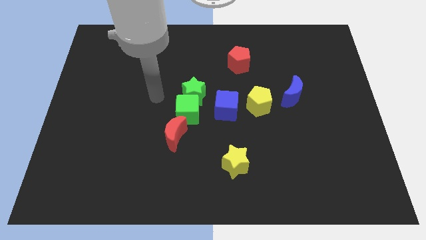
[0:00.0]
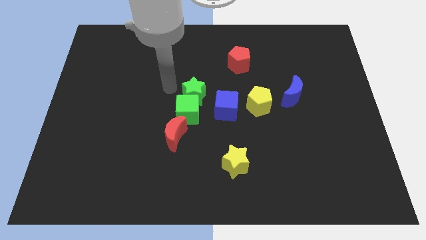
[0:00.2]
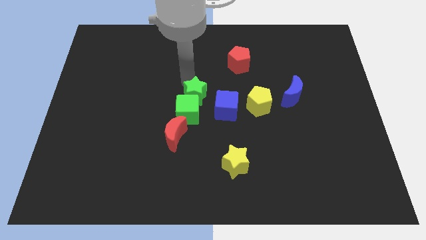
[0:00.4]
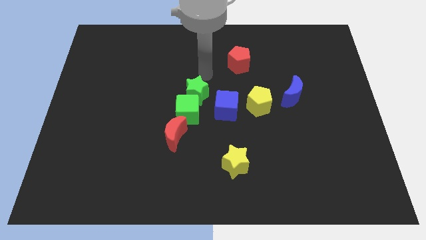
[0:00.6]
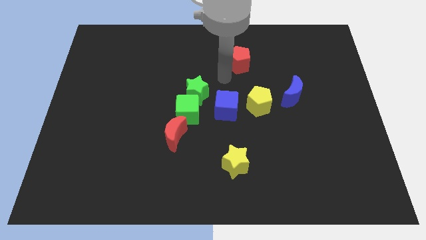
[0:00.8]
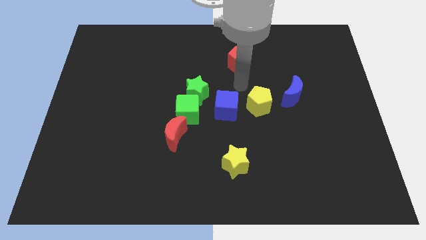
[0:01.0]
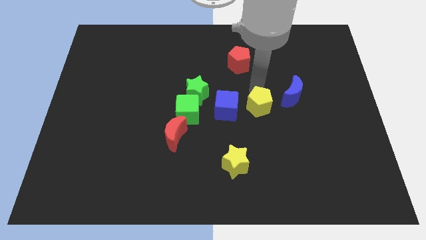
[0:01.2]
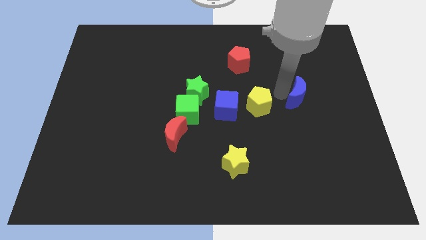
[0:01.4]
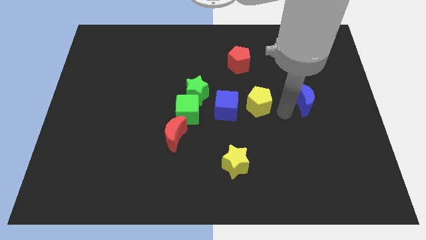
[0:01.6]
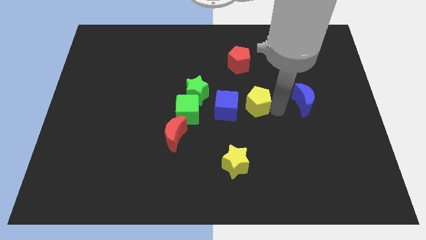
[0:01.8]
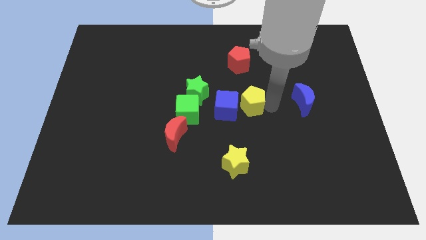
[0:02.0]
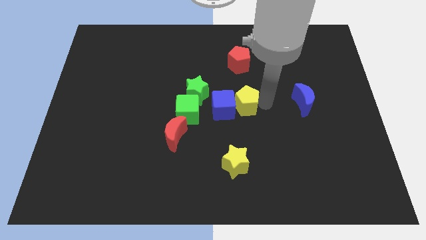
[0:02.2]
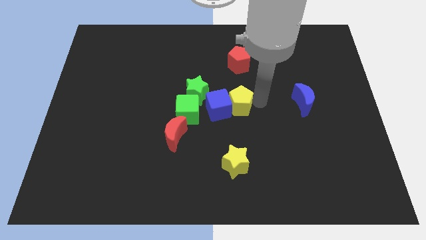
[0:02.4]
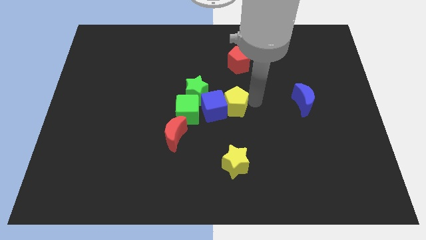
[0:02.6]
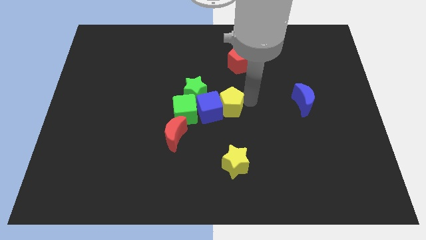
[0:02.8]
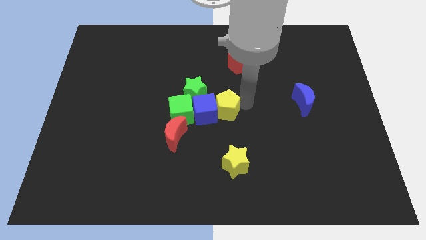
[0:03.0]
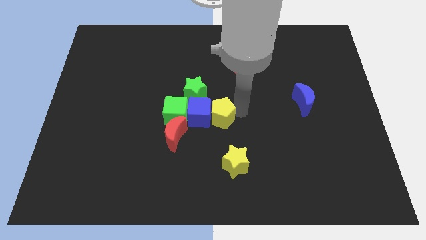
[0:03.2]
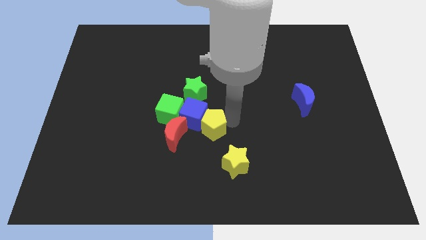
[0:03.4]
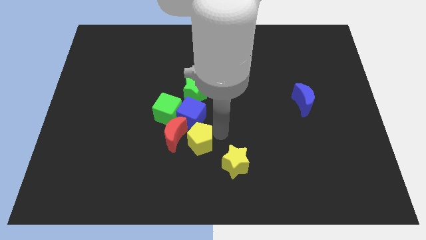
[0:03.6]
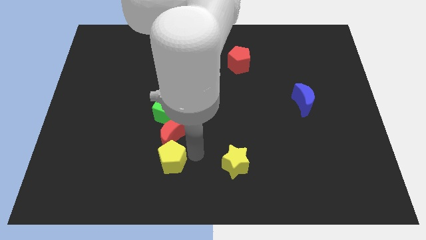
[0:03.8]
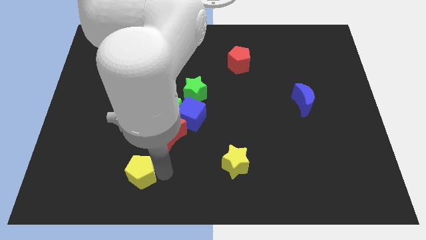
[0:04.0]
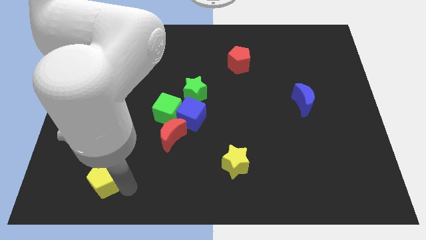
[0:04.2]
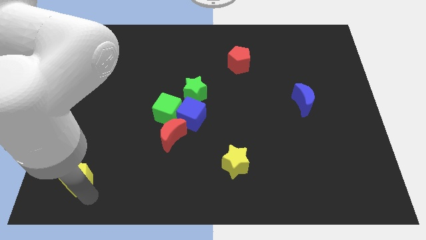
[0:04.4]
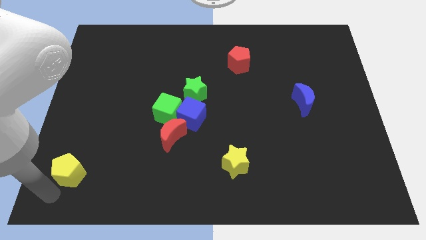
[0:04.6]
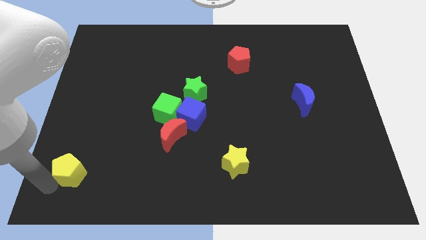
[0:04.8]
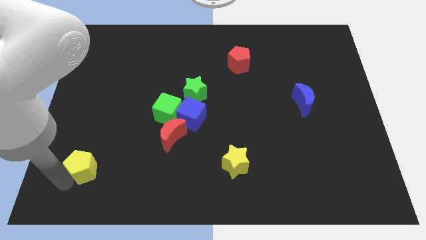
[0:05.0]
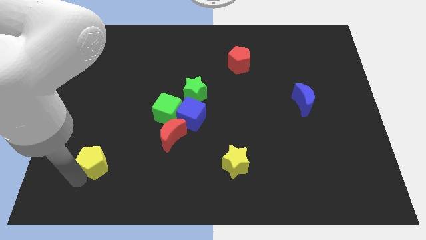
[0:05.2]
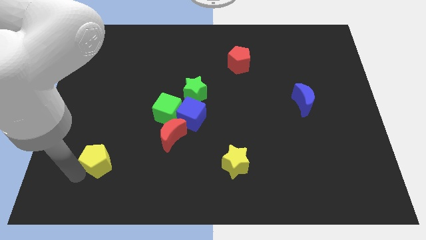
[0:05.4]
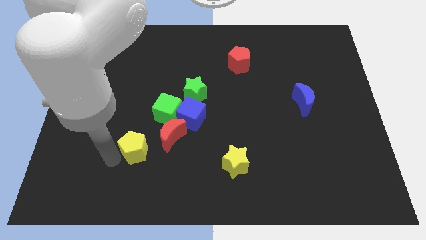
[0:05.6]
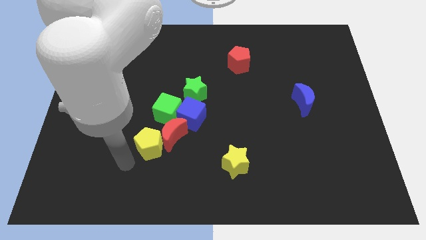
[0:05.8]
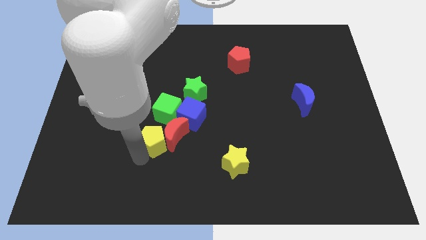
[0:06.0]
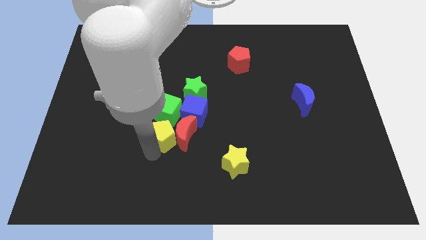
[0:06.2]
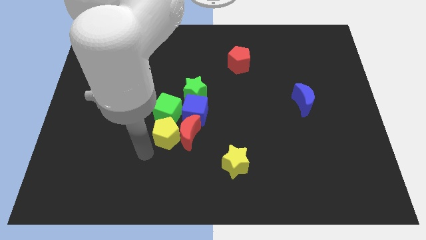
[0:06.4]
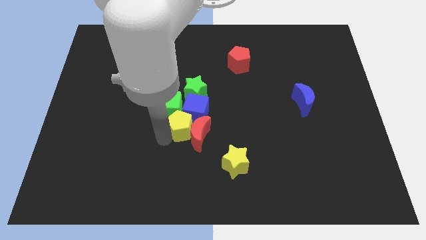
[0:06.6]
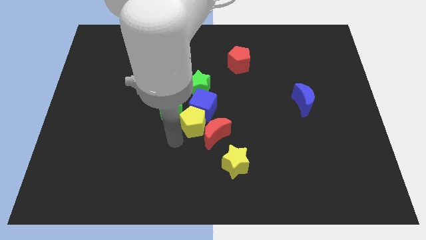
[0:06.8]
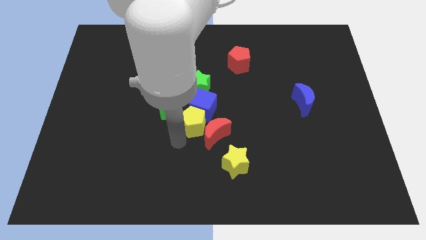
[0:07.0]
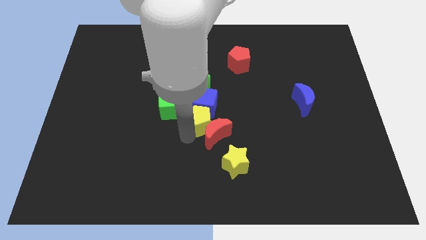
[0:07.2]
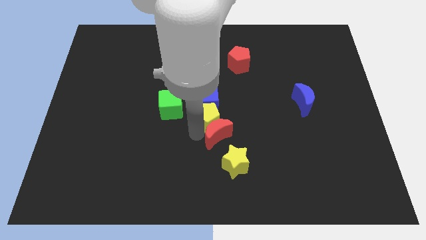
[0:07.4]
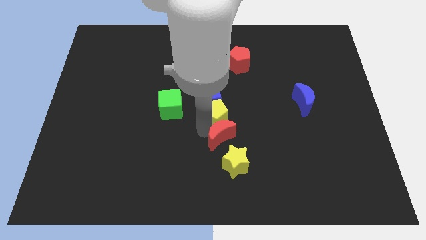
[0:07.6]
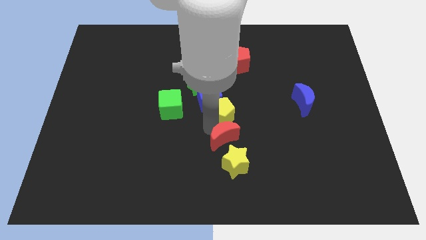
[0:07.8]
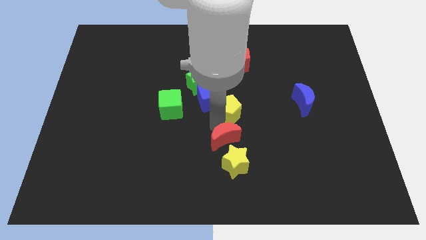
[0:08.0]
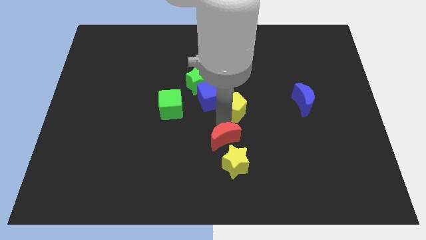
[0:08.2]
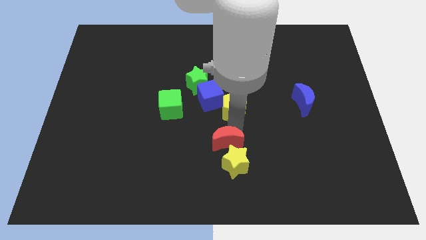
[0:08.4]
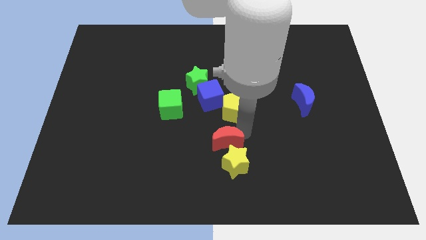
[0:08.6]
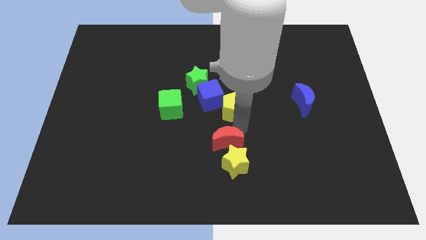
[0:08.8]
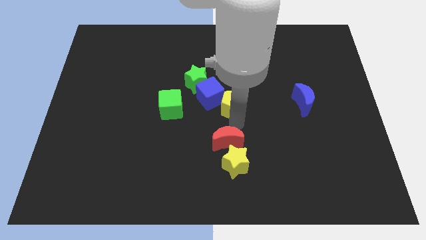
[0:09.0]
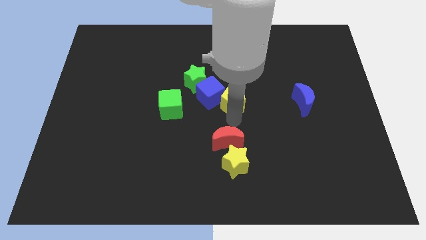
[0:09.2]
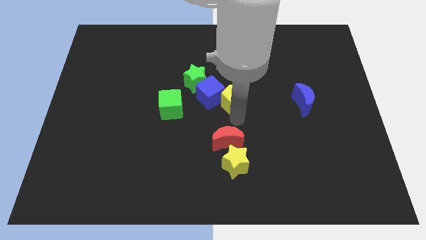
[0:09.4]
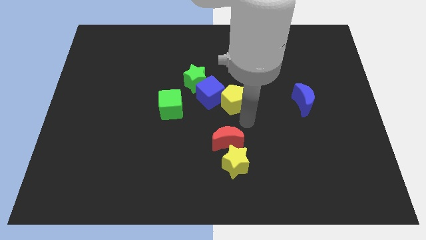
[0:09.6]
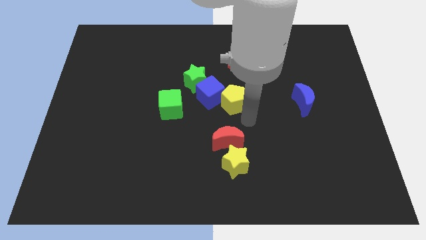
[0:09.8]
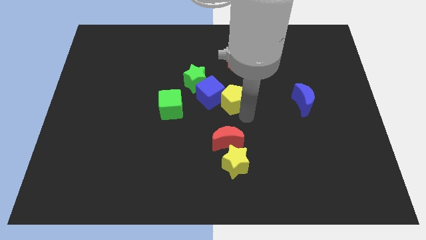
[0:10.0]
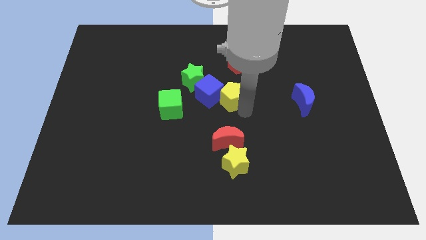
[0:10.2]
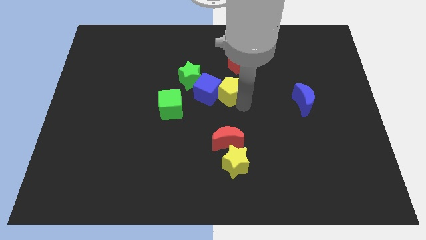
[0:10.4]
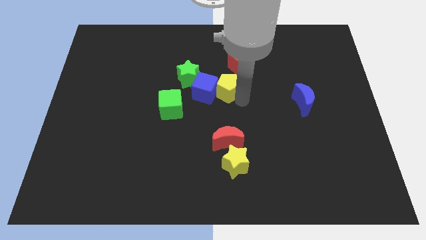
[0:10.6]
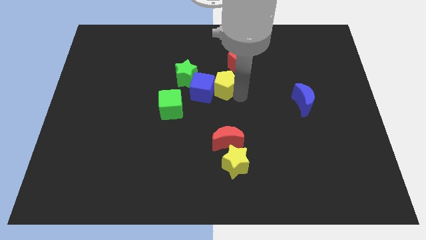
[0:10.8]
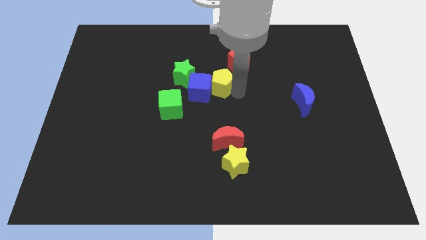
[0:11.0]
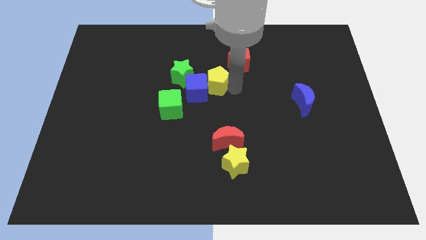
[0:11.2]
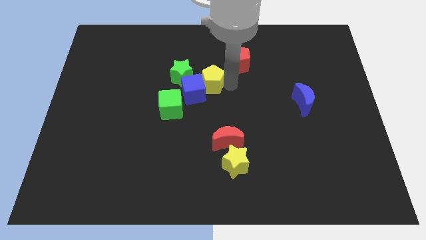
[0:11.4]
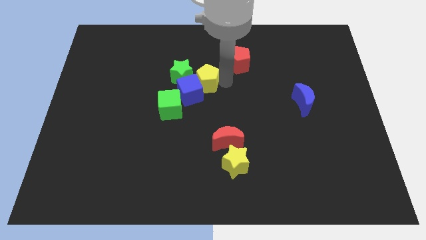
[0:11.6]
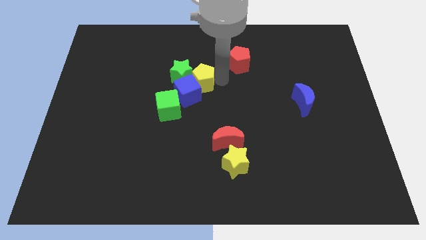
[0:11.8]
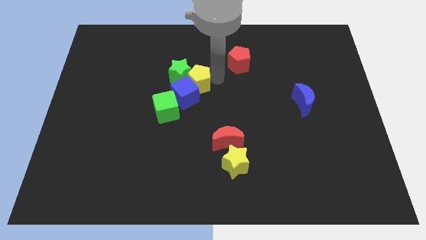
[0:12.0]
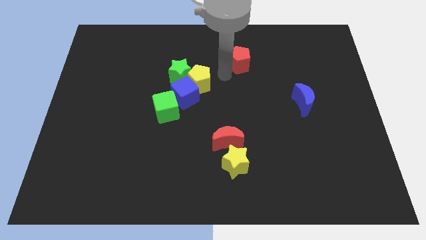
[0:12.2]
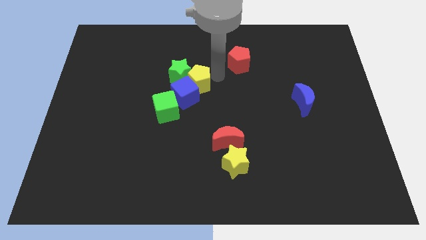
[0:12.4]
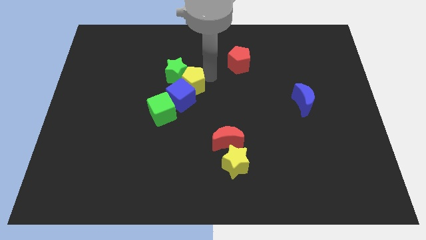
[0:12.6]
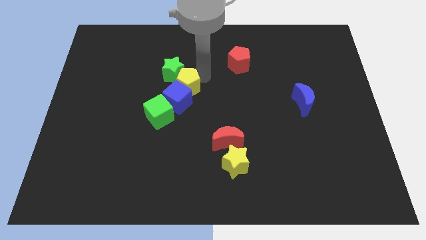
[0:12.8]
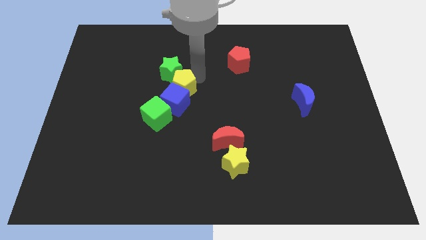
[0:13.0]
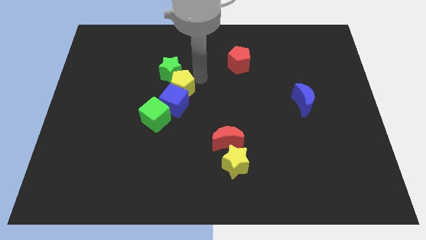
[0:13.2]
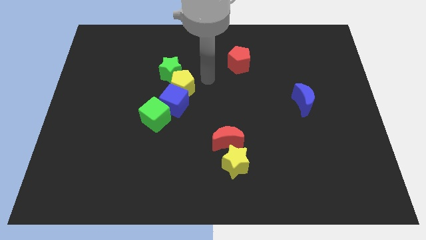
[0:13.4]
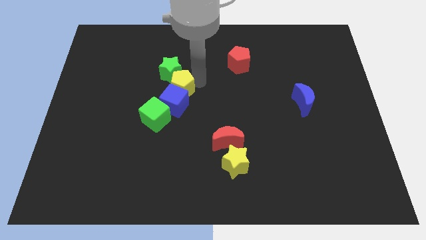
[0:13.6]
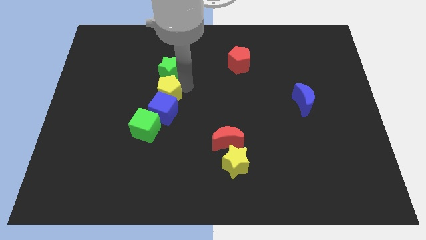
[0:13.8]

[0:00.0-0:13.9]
move the yellow pentagon to the left

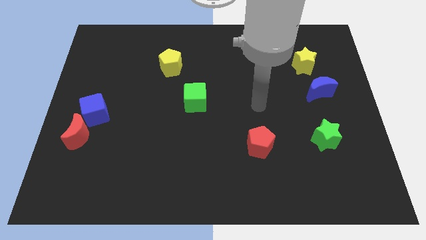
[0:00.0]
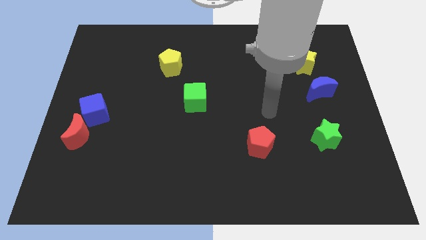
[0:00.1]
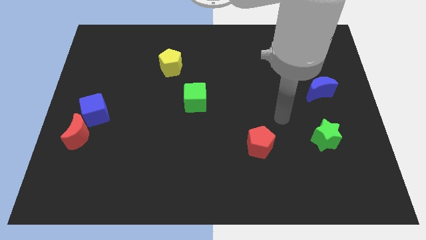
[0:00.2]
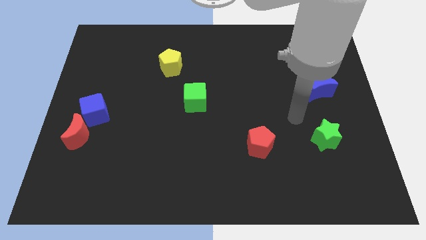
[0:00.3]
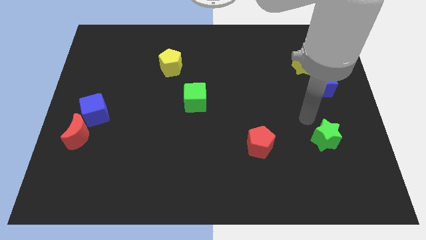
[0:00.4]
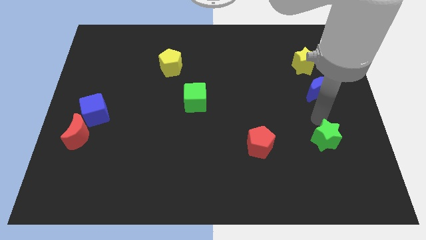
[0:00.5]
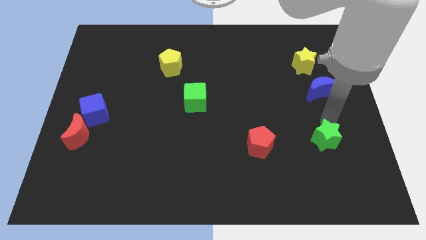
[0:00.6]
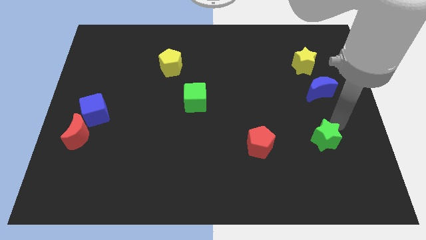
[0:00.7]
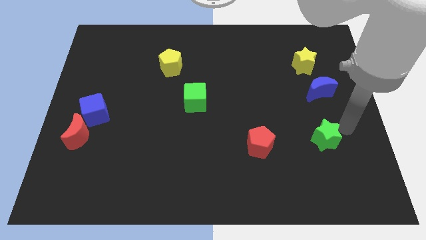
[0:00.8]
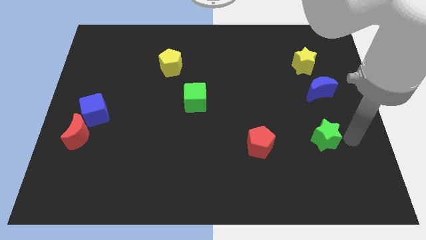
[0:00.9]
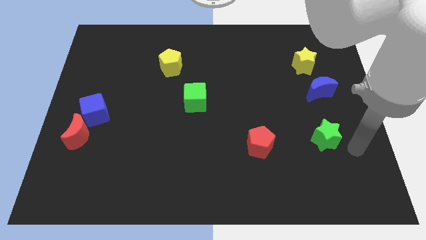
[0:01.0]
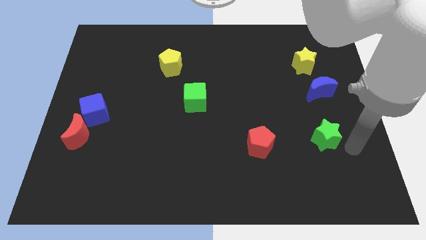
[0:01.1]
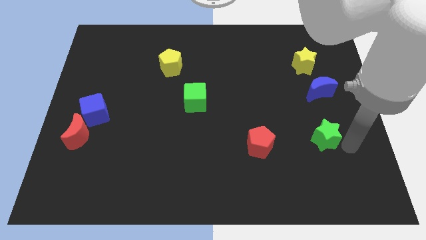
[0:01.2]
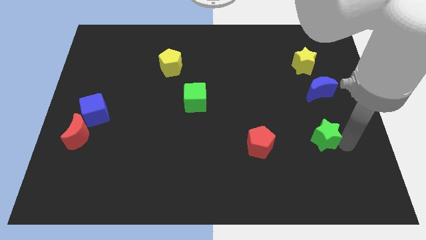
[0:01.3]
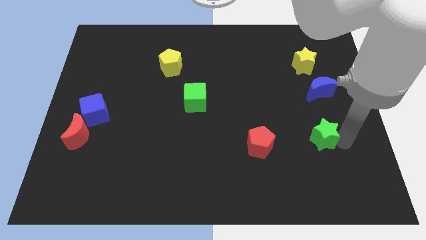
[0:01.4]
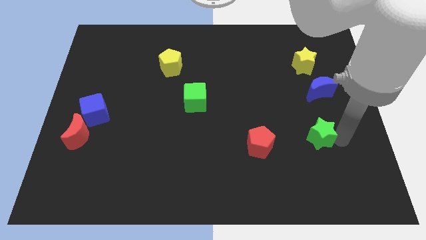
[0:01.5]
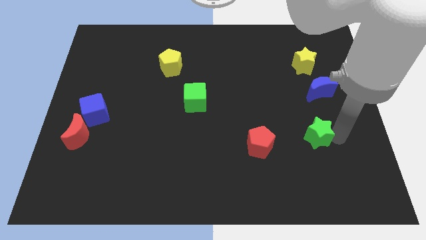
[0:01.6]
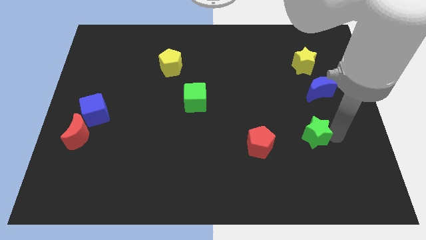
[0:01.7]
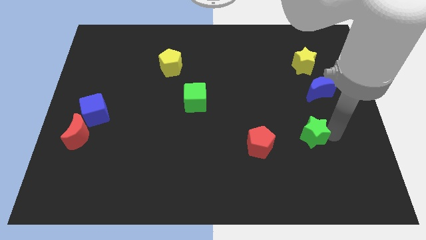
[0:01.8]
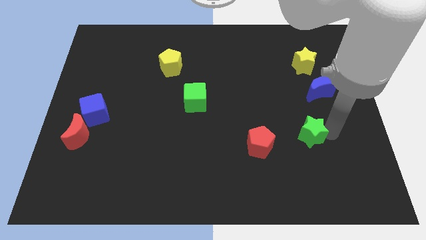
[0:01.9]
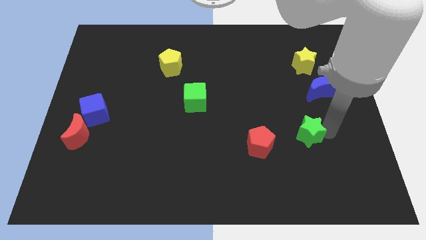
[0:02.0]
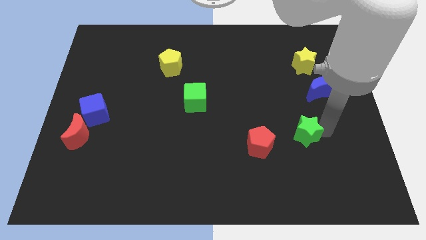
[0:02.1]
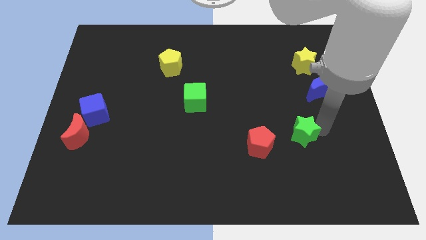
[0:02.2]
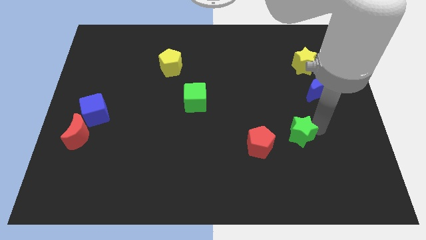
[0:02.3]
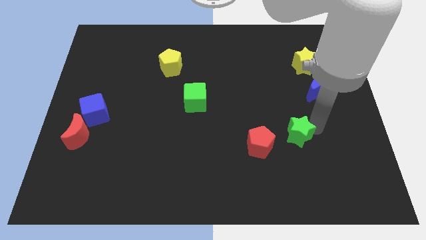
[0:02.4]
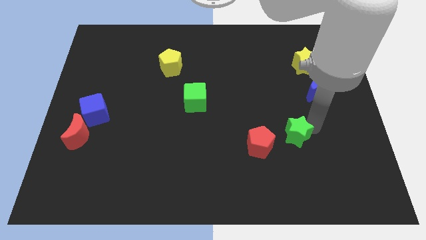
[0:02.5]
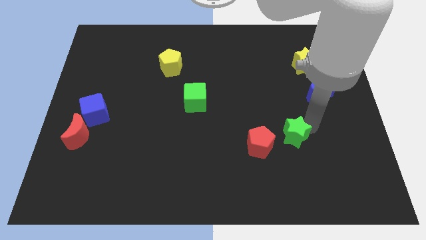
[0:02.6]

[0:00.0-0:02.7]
slide the green star left somewhat
